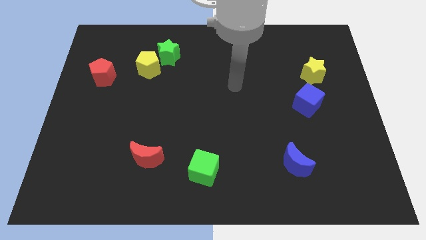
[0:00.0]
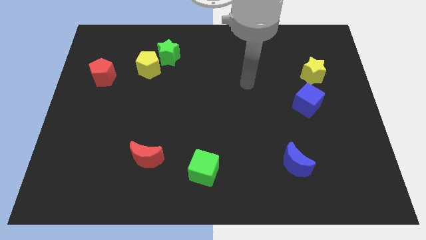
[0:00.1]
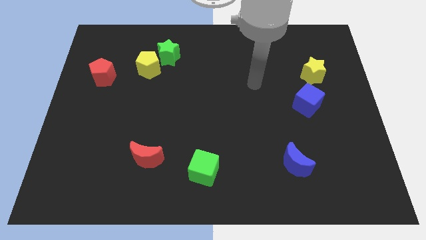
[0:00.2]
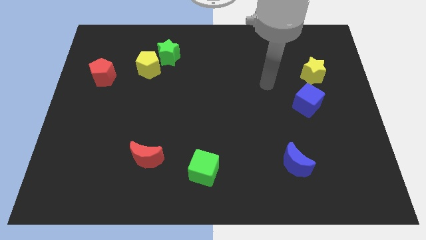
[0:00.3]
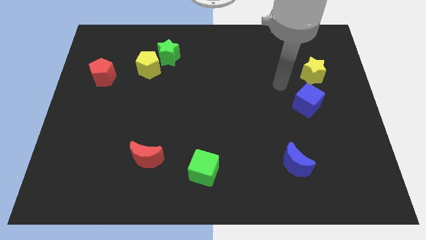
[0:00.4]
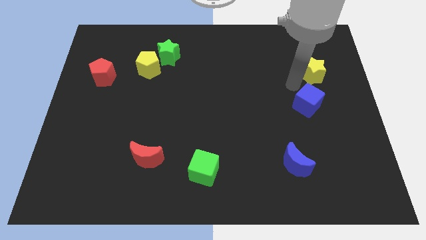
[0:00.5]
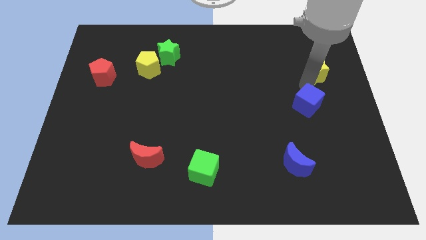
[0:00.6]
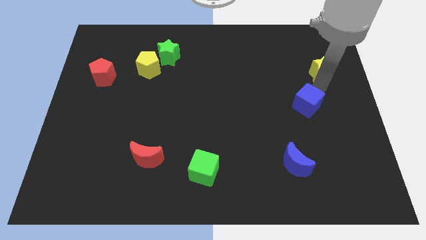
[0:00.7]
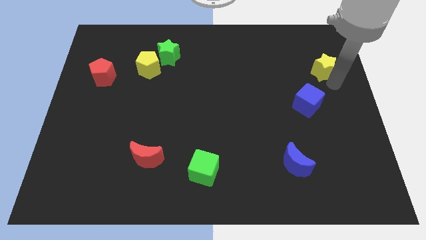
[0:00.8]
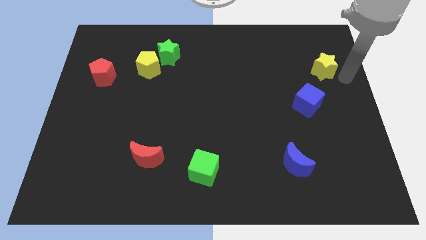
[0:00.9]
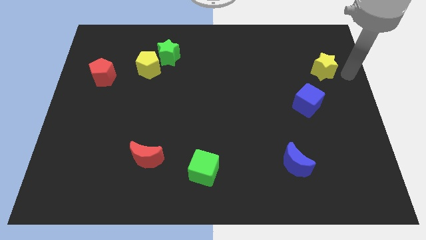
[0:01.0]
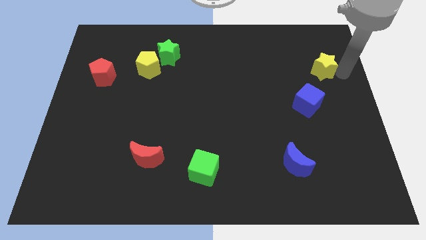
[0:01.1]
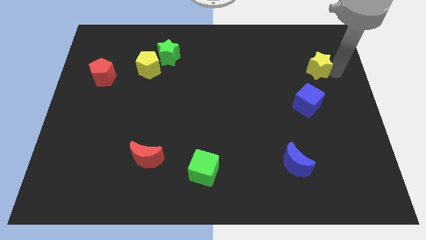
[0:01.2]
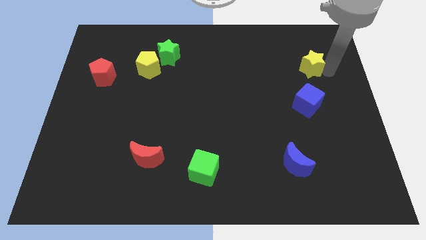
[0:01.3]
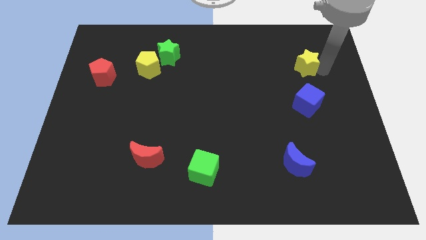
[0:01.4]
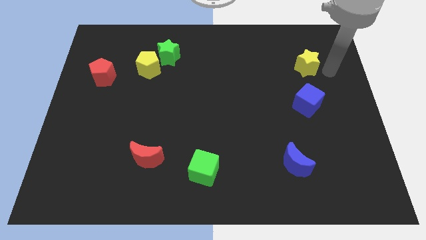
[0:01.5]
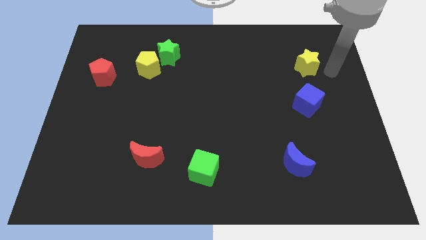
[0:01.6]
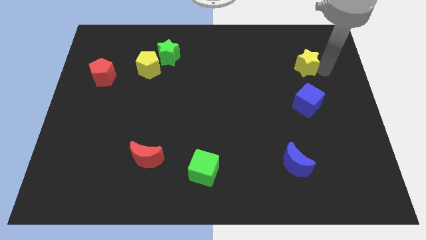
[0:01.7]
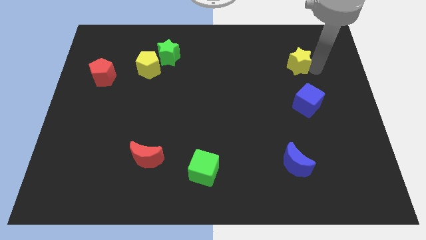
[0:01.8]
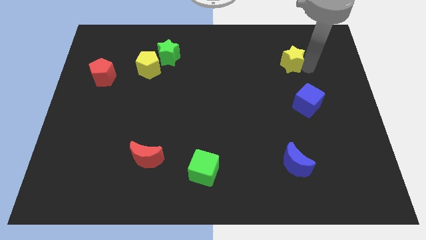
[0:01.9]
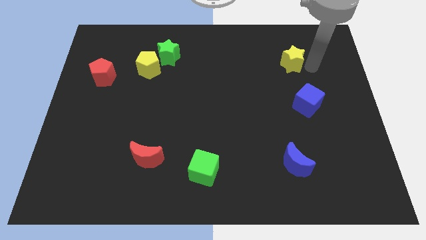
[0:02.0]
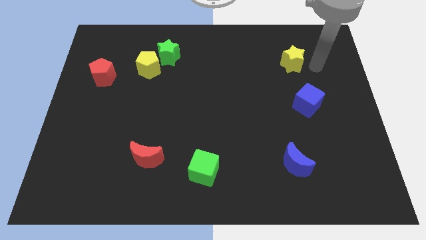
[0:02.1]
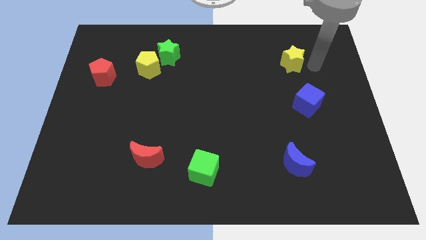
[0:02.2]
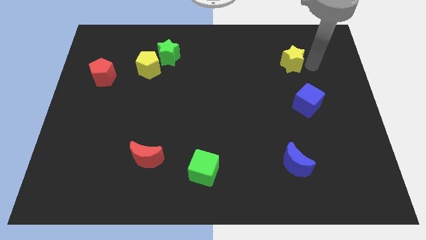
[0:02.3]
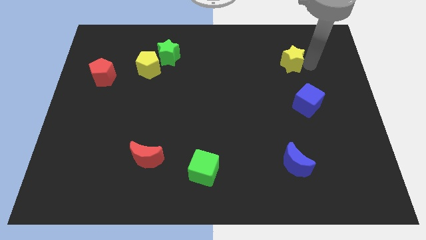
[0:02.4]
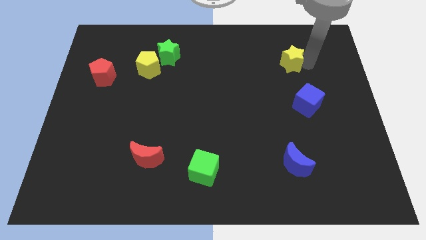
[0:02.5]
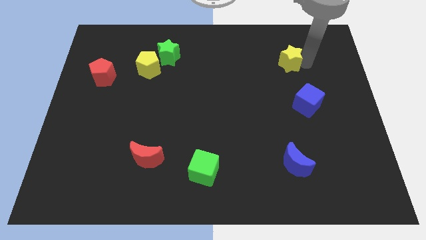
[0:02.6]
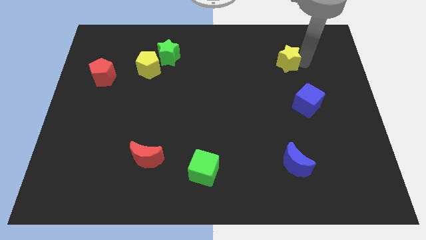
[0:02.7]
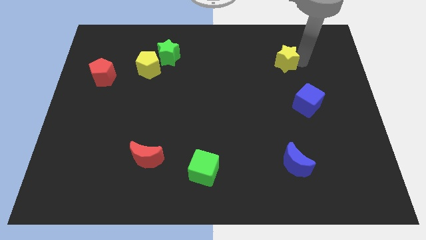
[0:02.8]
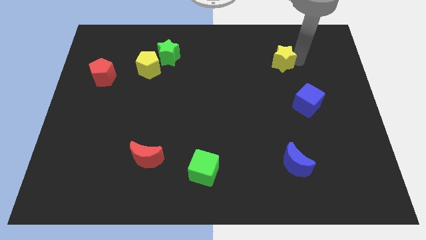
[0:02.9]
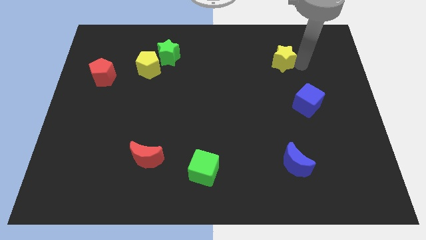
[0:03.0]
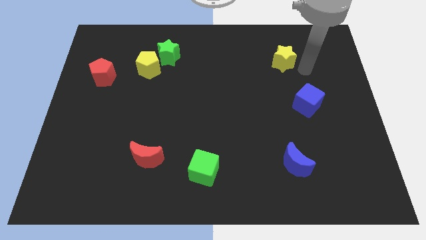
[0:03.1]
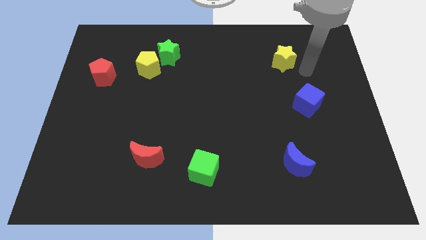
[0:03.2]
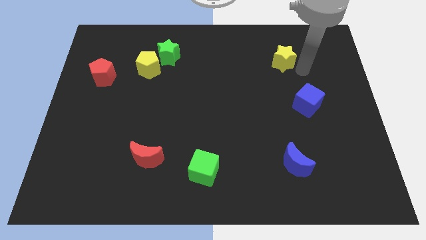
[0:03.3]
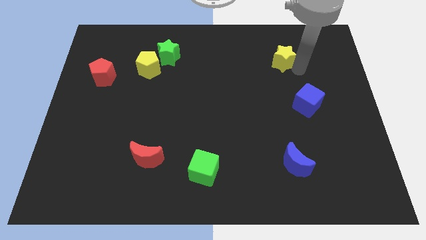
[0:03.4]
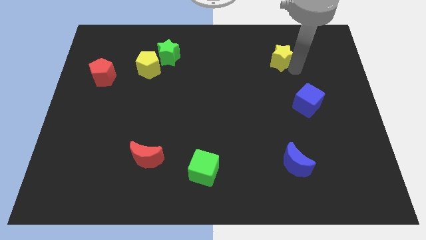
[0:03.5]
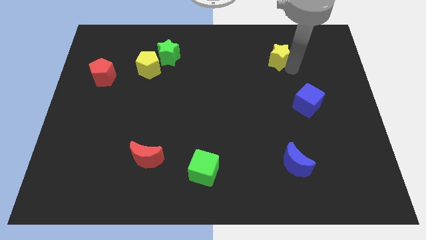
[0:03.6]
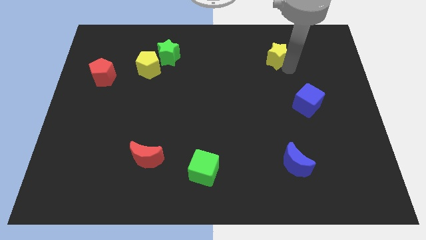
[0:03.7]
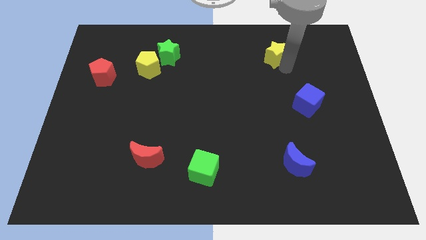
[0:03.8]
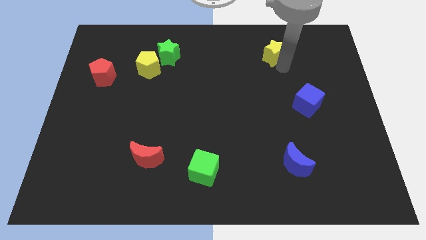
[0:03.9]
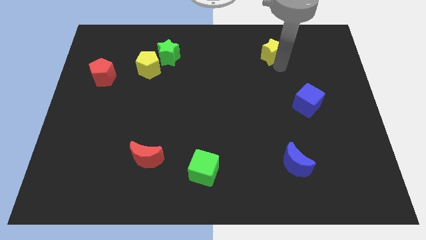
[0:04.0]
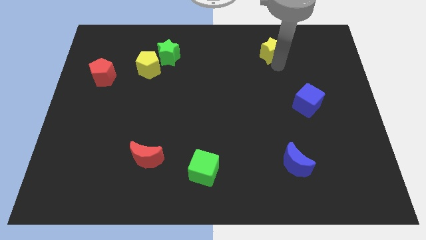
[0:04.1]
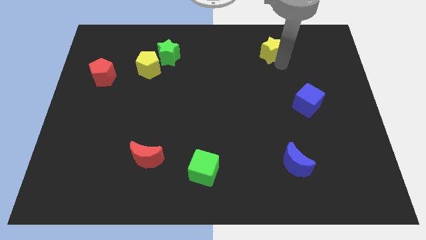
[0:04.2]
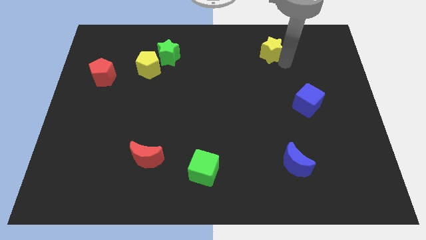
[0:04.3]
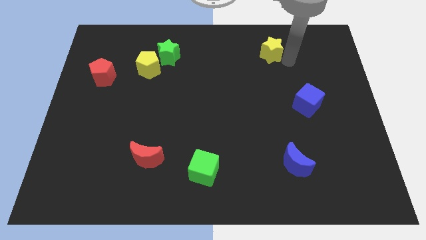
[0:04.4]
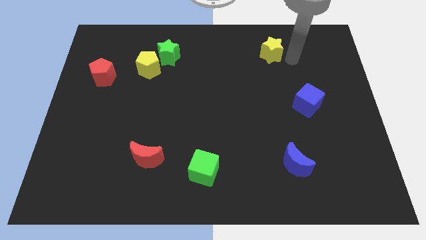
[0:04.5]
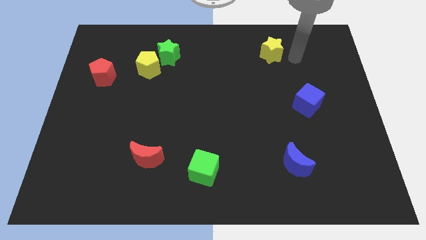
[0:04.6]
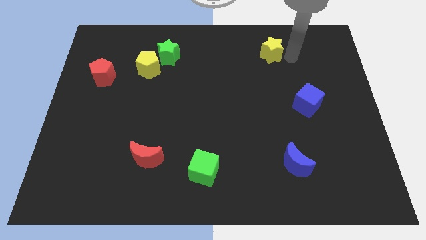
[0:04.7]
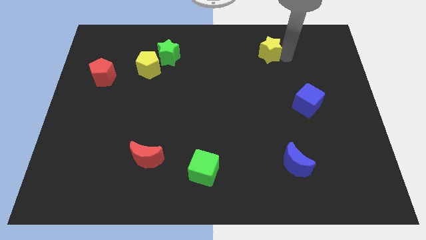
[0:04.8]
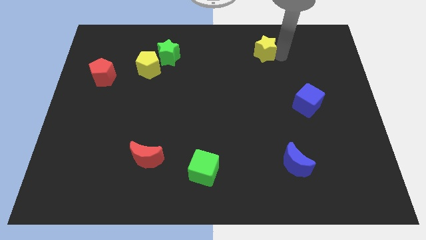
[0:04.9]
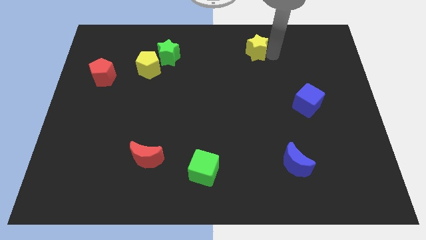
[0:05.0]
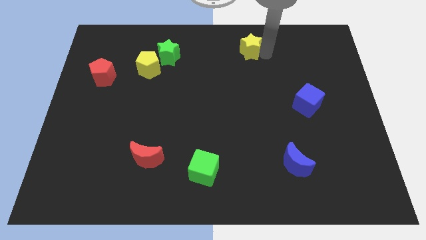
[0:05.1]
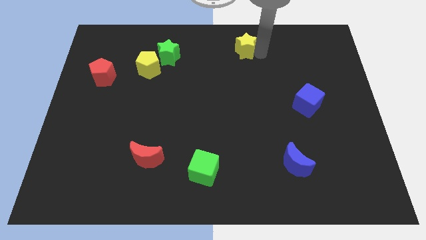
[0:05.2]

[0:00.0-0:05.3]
move the yellow star to the towards your base

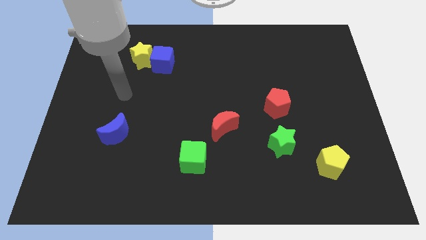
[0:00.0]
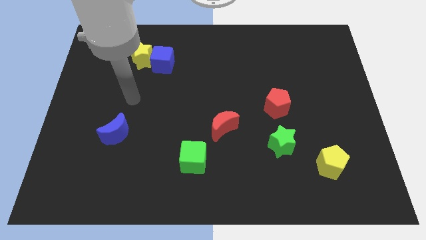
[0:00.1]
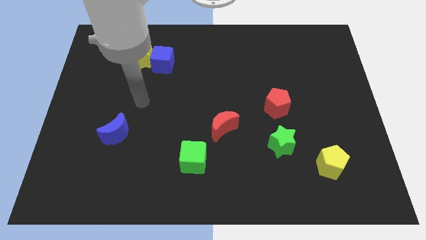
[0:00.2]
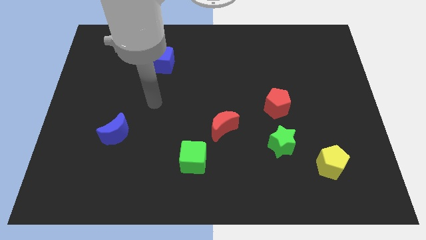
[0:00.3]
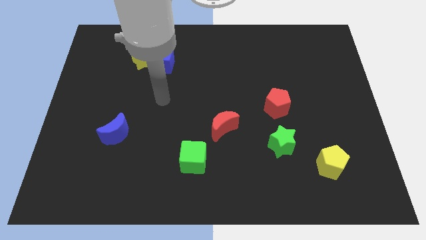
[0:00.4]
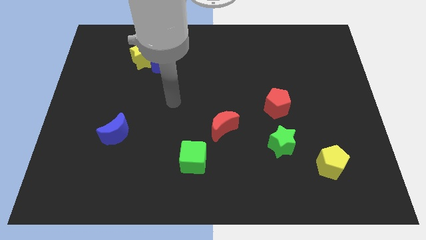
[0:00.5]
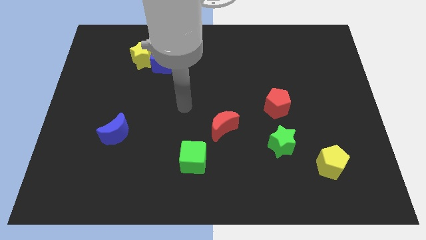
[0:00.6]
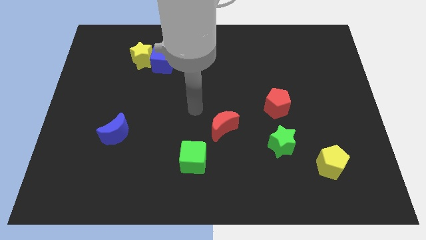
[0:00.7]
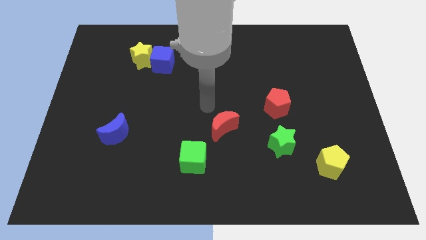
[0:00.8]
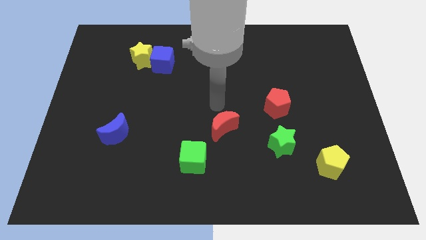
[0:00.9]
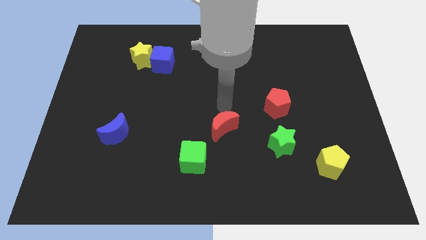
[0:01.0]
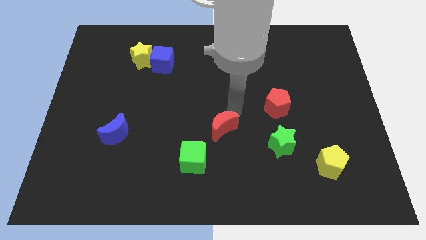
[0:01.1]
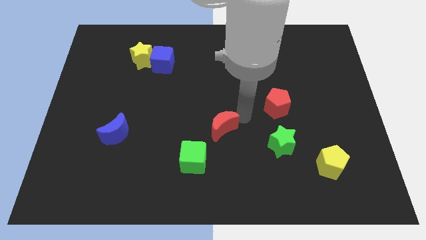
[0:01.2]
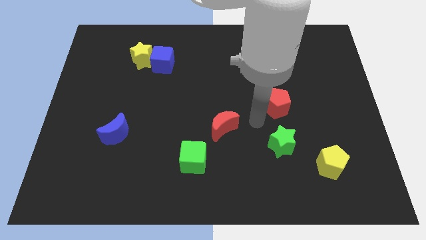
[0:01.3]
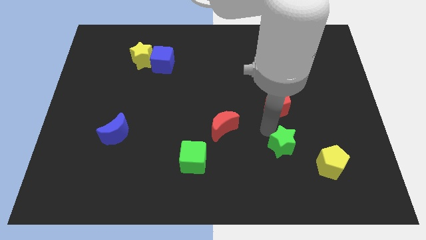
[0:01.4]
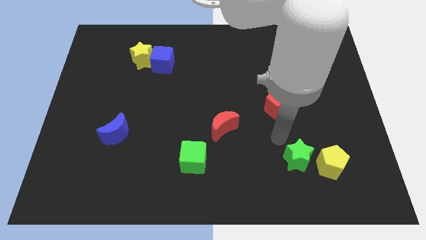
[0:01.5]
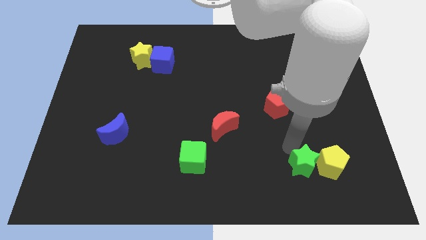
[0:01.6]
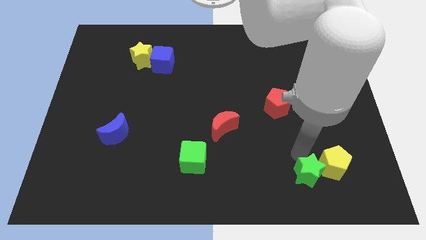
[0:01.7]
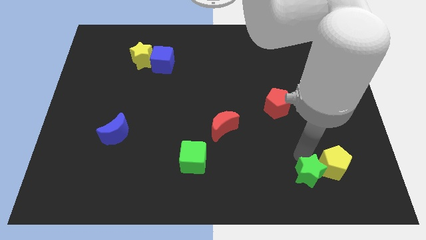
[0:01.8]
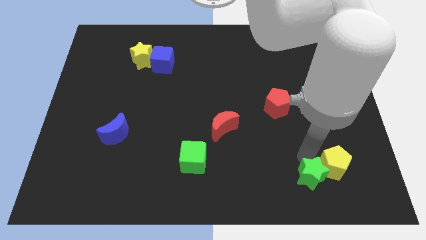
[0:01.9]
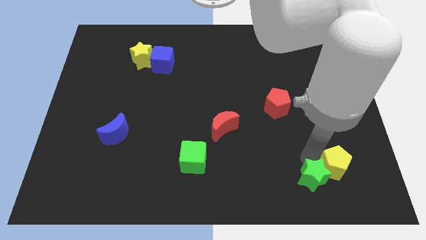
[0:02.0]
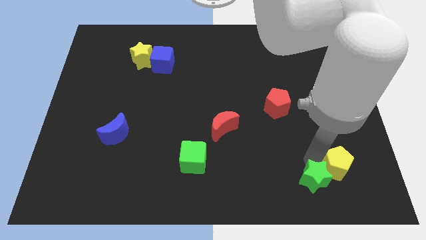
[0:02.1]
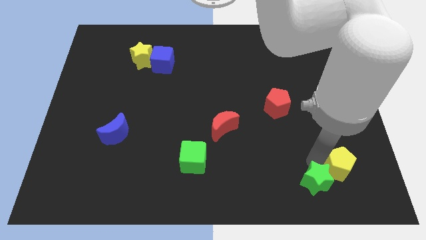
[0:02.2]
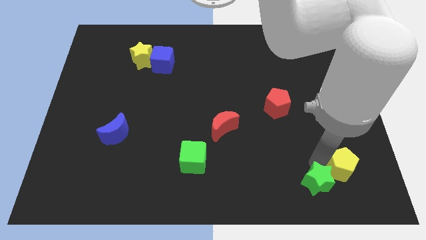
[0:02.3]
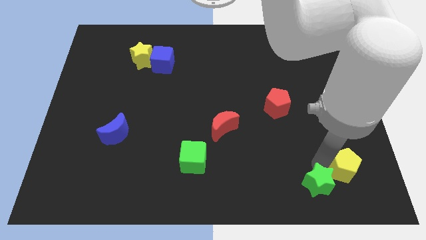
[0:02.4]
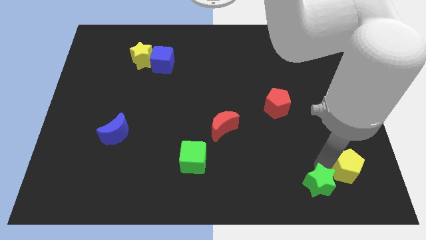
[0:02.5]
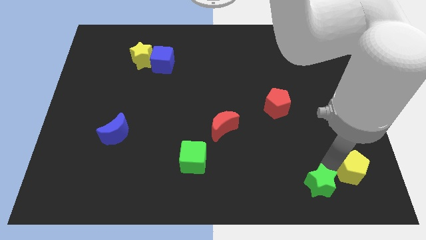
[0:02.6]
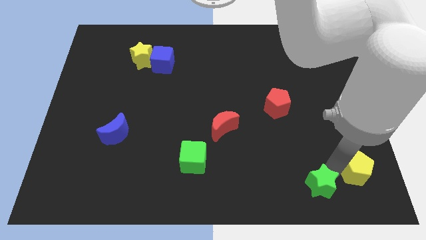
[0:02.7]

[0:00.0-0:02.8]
push the yellow pentagon to the bottom right
